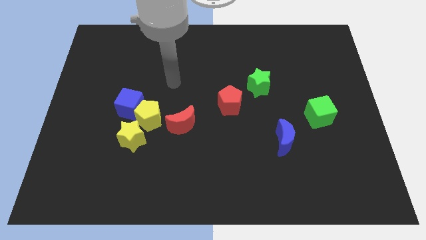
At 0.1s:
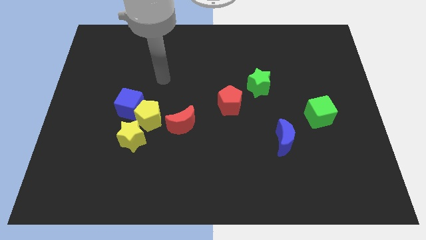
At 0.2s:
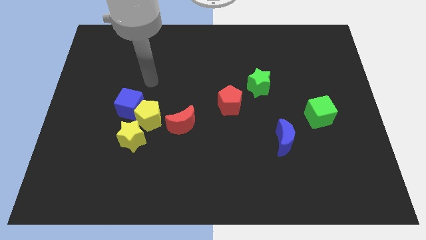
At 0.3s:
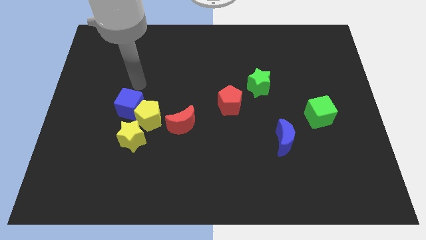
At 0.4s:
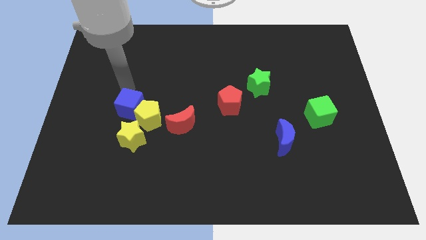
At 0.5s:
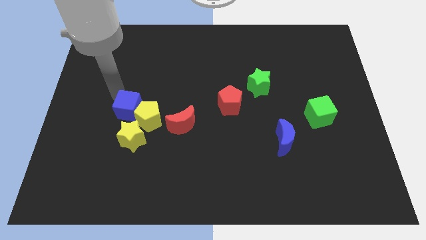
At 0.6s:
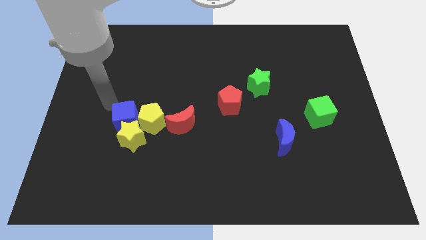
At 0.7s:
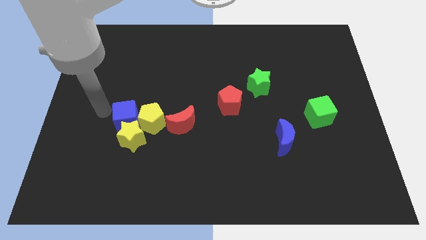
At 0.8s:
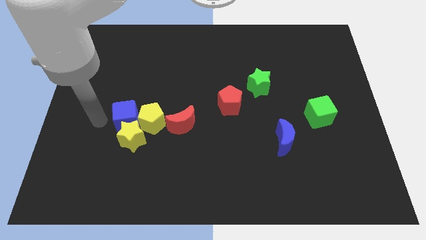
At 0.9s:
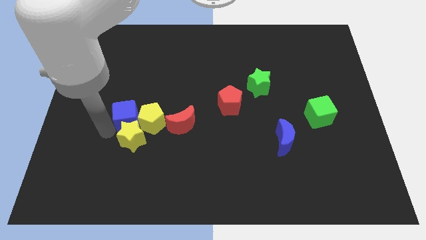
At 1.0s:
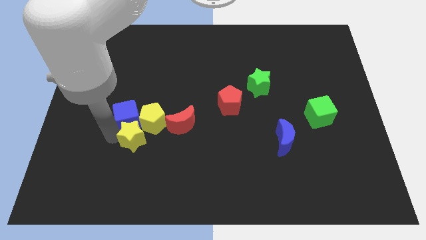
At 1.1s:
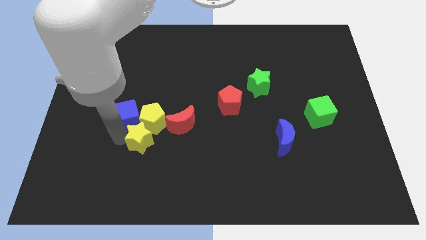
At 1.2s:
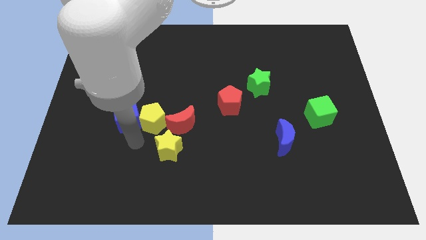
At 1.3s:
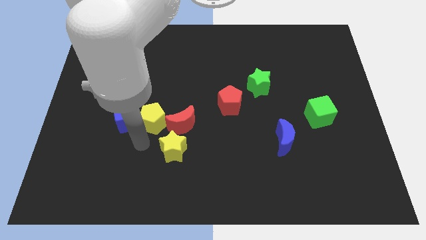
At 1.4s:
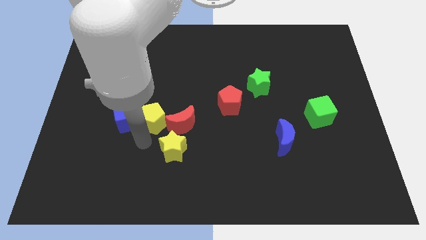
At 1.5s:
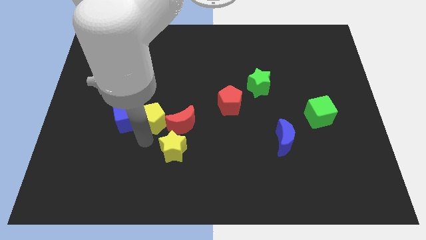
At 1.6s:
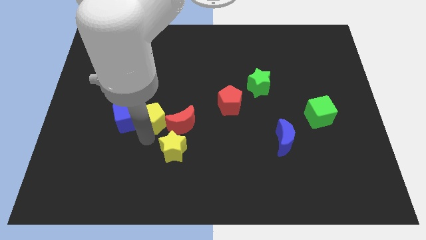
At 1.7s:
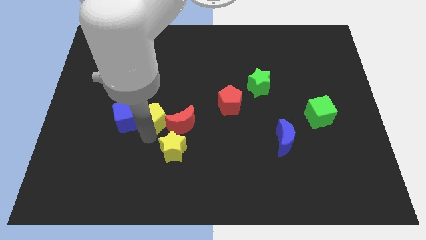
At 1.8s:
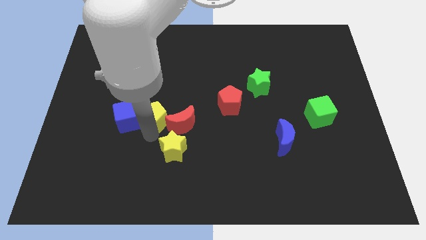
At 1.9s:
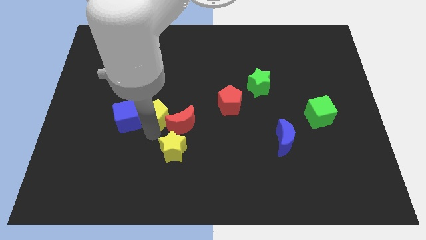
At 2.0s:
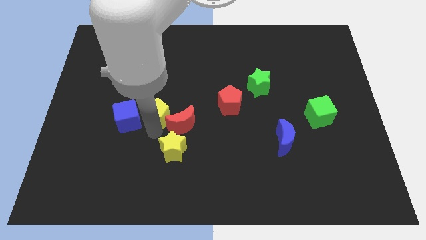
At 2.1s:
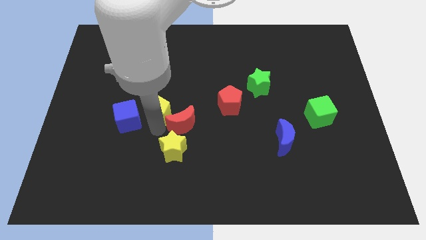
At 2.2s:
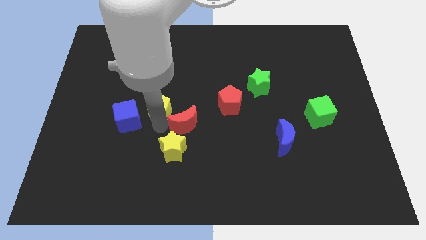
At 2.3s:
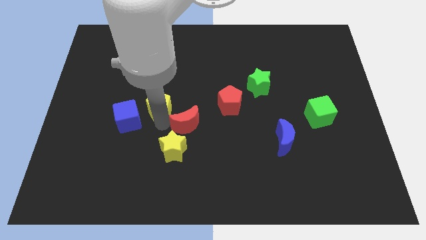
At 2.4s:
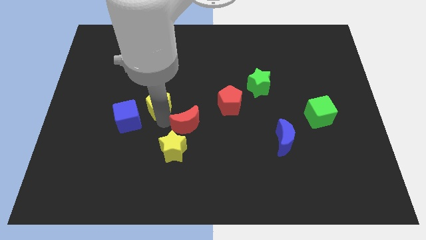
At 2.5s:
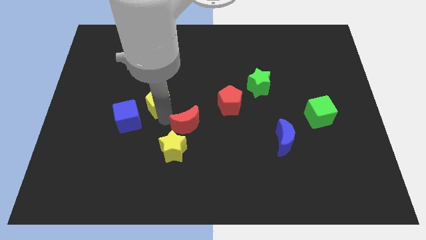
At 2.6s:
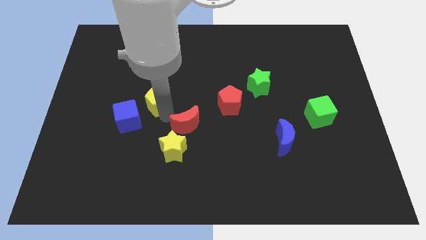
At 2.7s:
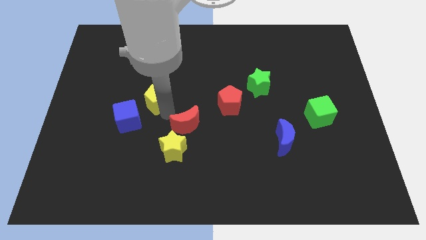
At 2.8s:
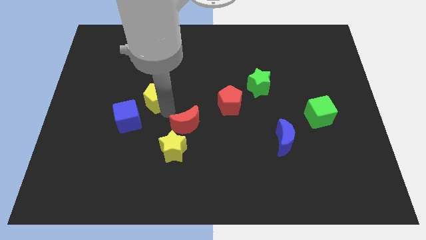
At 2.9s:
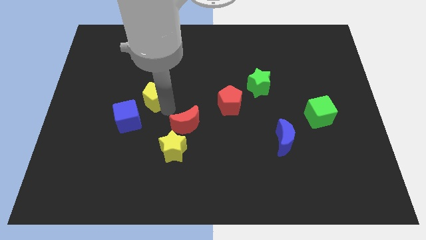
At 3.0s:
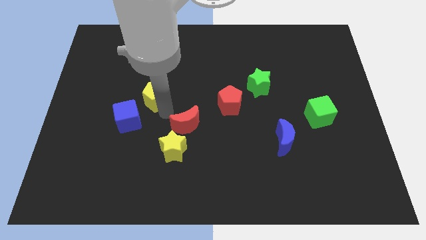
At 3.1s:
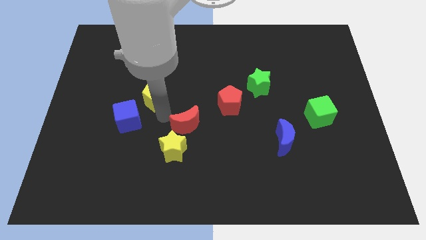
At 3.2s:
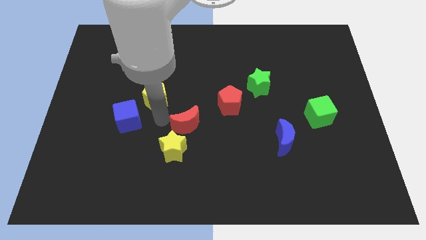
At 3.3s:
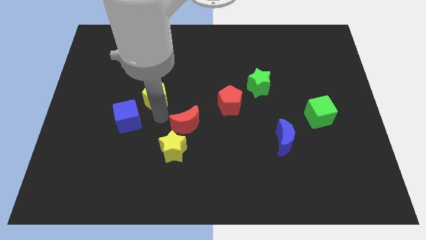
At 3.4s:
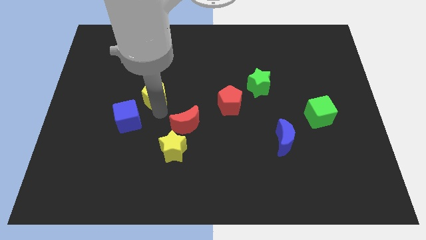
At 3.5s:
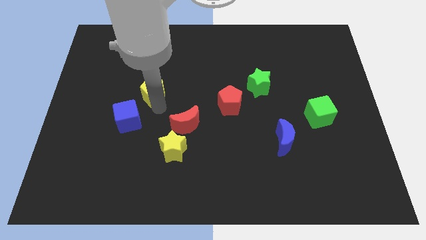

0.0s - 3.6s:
pull the yellow pentagon apart from the group of blocks

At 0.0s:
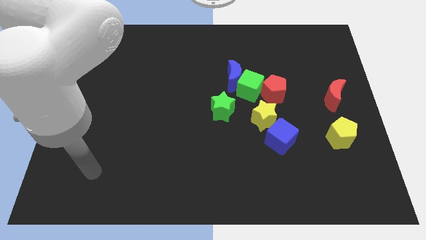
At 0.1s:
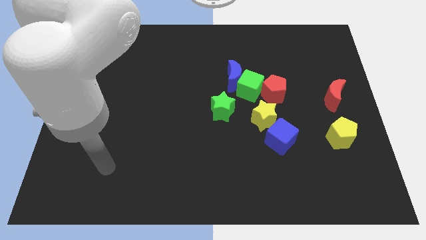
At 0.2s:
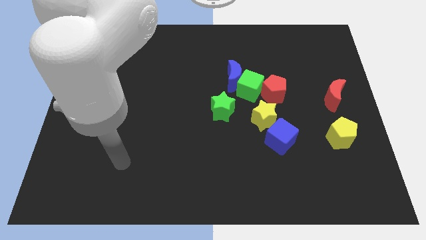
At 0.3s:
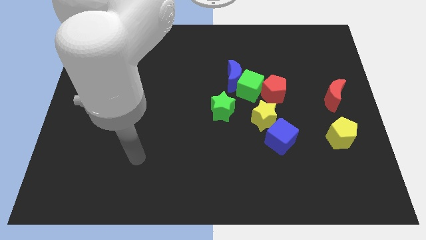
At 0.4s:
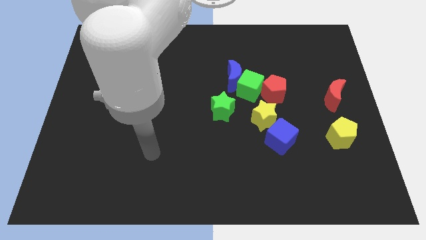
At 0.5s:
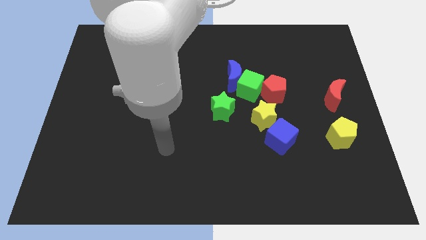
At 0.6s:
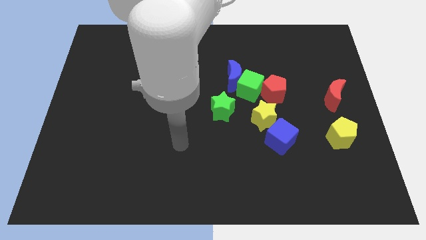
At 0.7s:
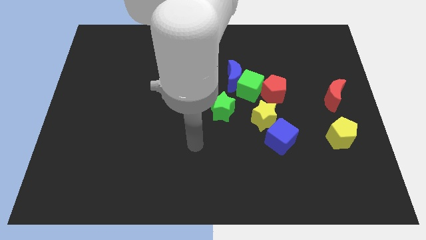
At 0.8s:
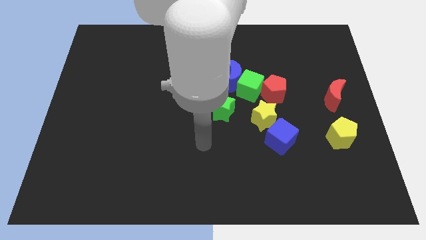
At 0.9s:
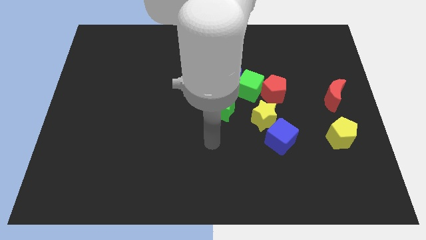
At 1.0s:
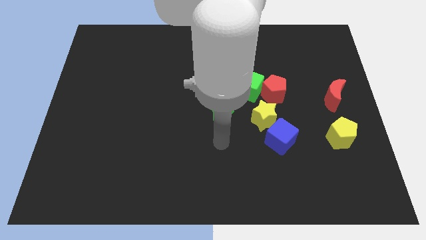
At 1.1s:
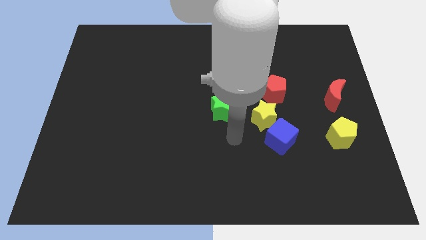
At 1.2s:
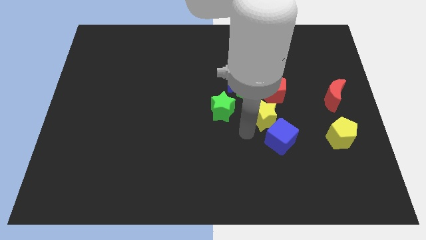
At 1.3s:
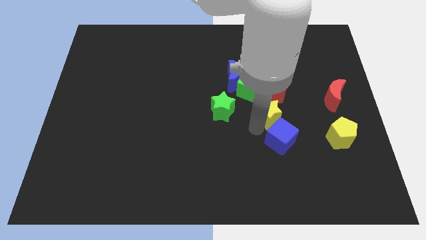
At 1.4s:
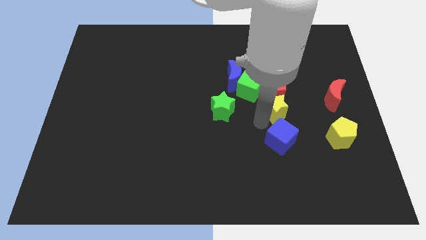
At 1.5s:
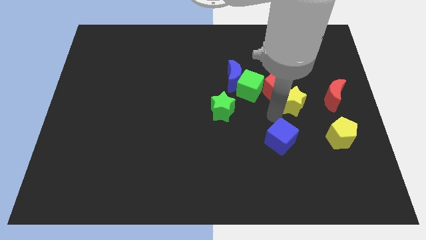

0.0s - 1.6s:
pull the blue cube apart from the yellow star

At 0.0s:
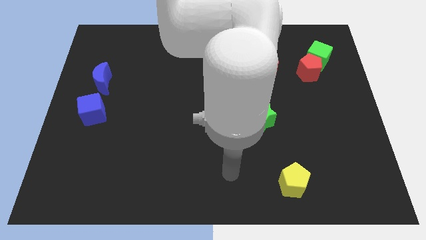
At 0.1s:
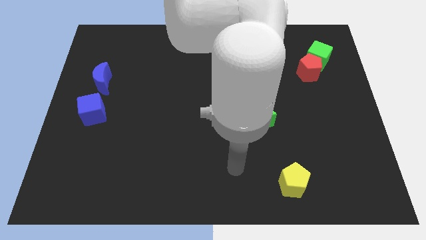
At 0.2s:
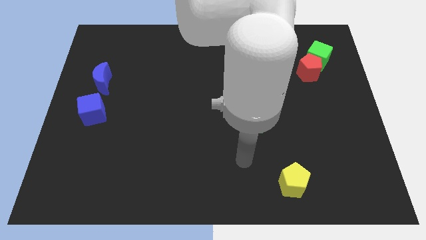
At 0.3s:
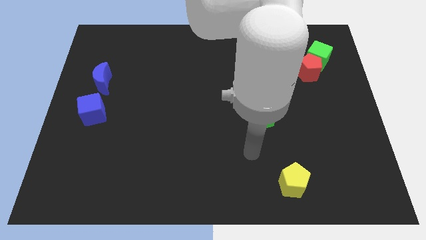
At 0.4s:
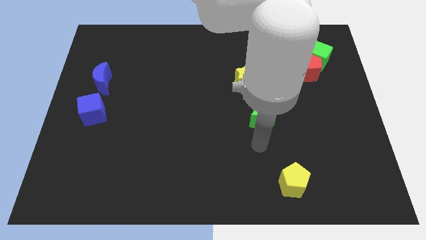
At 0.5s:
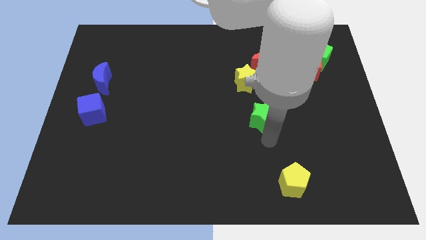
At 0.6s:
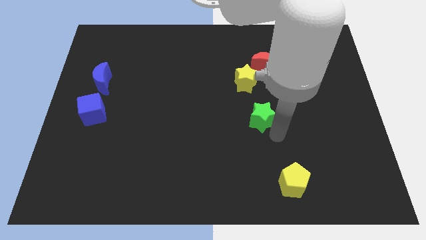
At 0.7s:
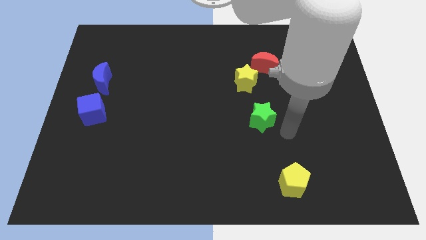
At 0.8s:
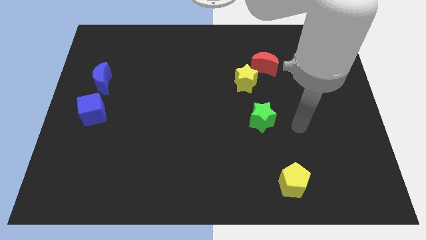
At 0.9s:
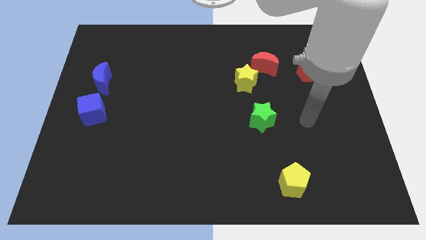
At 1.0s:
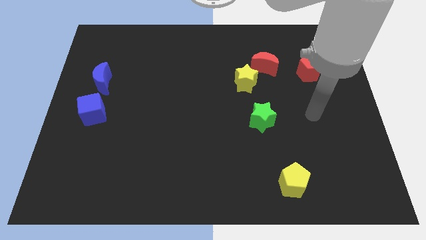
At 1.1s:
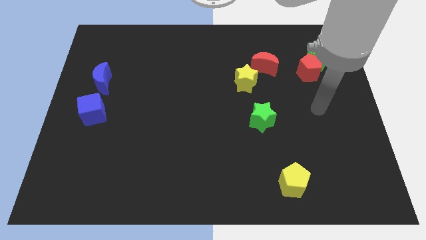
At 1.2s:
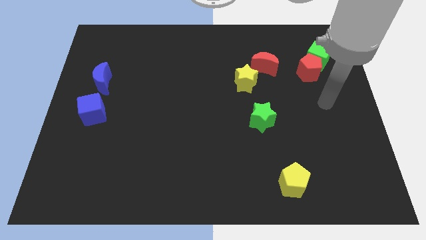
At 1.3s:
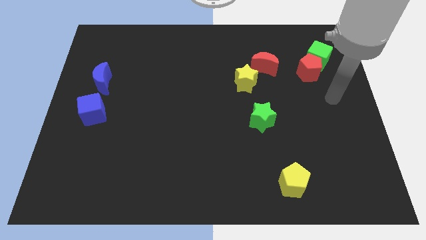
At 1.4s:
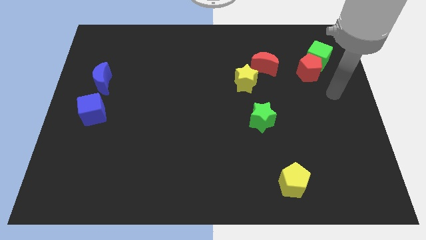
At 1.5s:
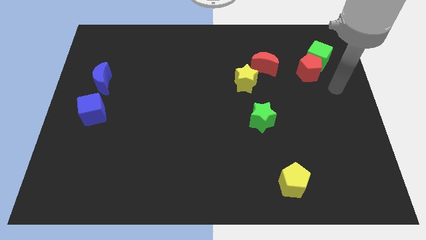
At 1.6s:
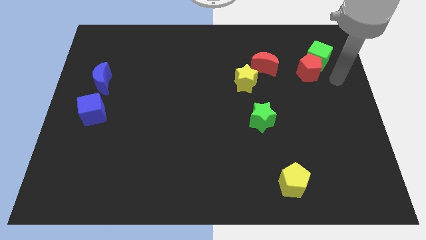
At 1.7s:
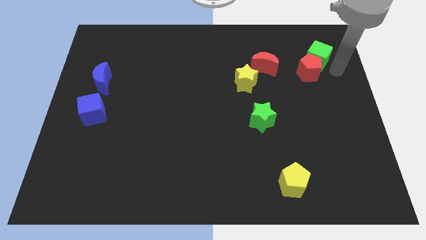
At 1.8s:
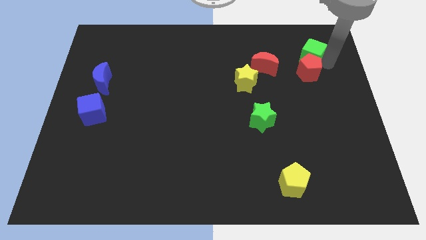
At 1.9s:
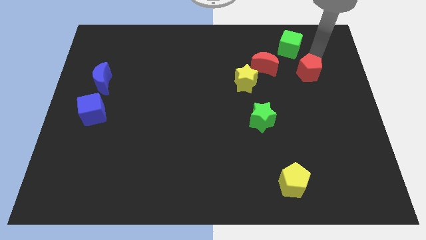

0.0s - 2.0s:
separate the red pentagon from the green cube

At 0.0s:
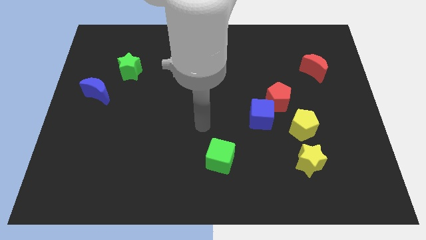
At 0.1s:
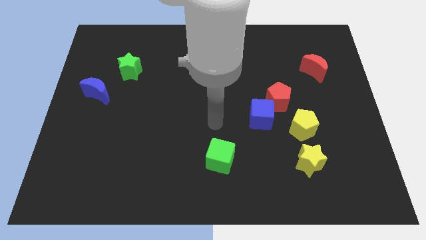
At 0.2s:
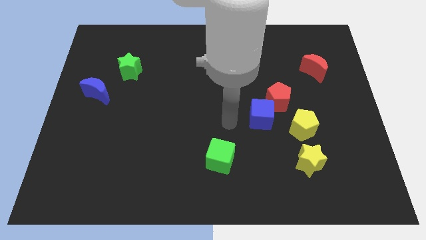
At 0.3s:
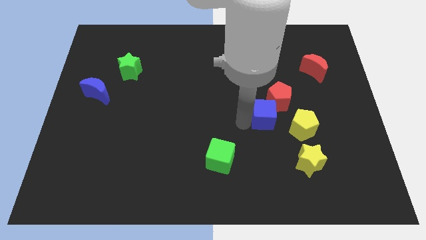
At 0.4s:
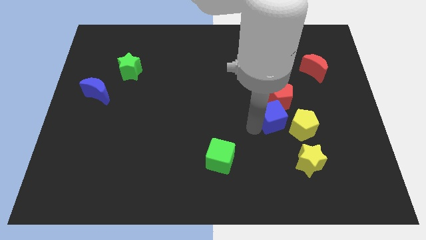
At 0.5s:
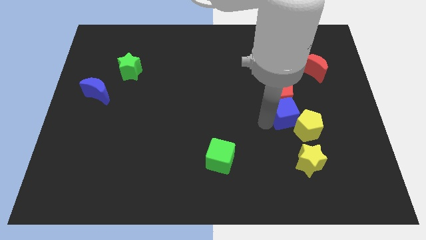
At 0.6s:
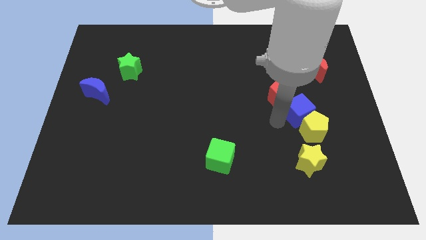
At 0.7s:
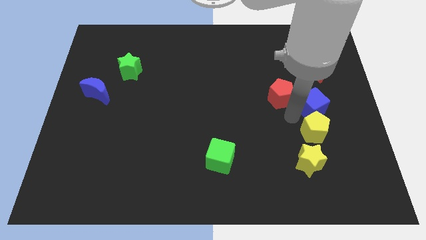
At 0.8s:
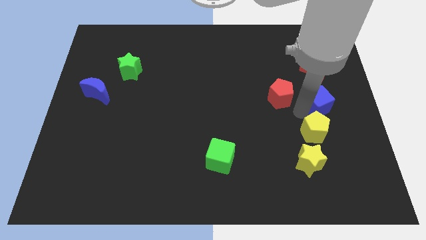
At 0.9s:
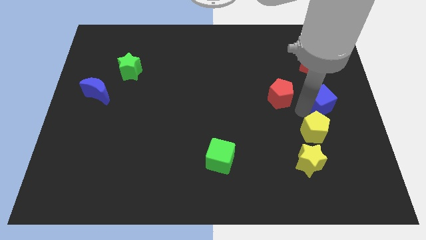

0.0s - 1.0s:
pull the red pentagon apart from the blue cube and yellow pentagon

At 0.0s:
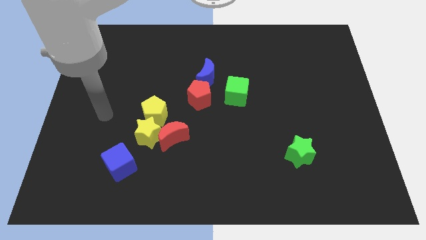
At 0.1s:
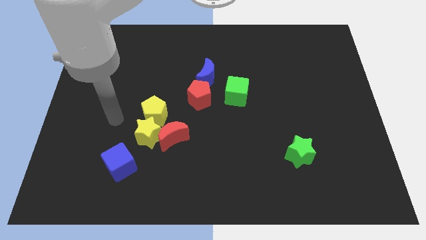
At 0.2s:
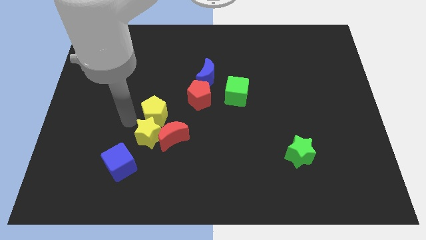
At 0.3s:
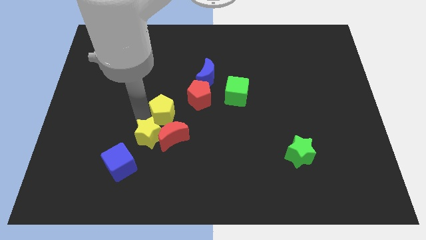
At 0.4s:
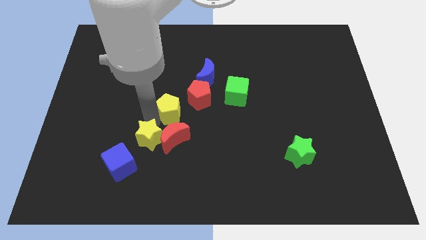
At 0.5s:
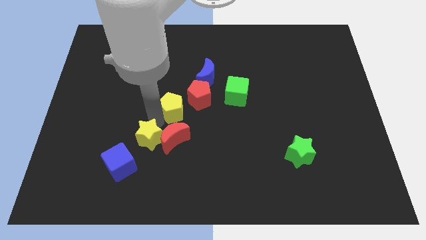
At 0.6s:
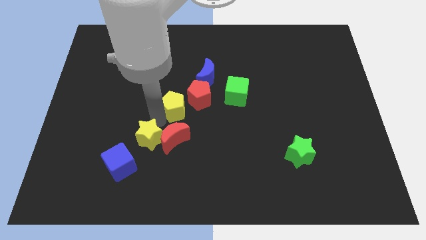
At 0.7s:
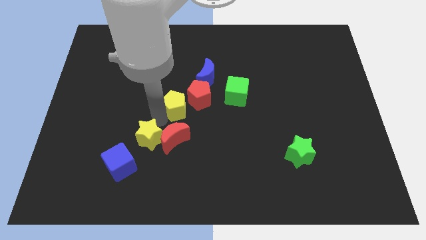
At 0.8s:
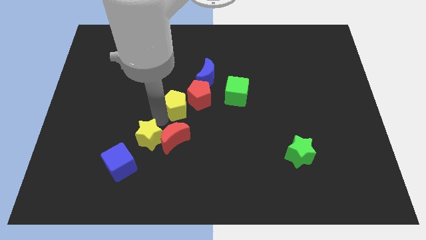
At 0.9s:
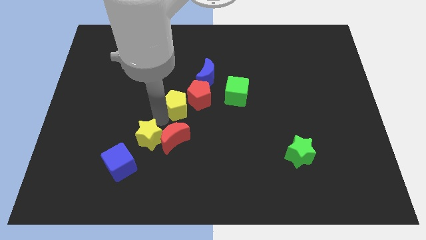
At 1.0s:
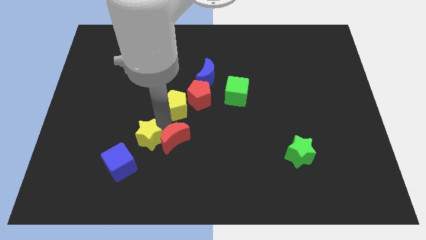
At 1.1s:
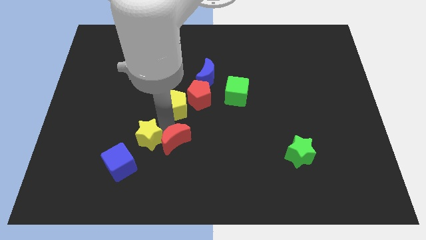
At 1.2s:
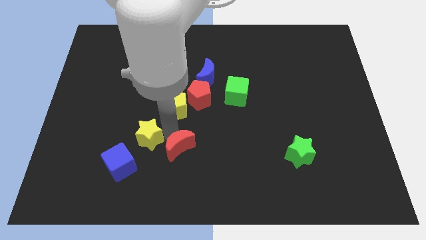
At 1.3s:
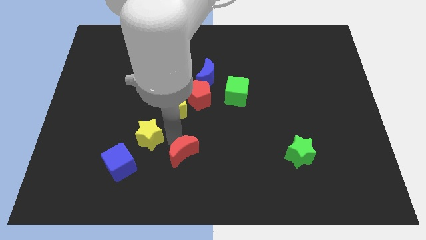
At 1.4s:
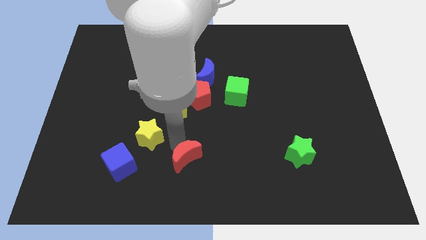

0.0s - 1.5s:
pull the red moon apart from the yellow star and yellow pentagon
